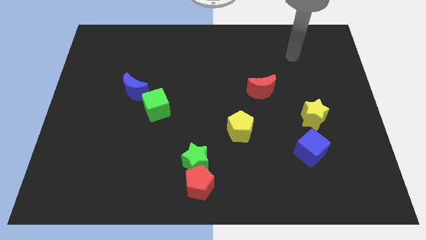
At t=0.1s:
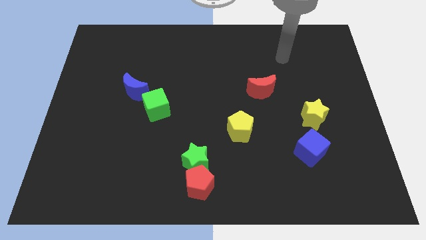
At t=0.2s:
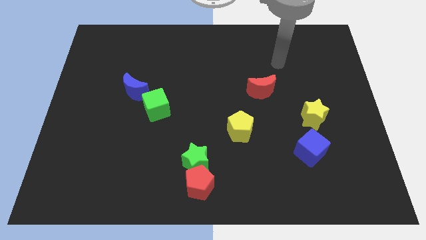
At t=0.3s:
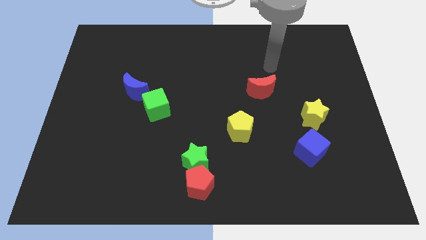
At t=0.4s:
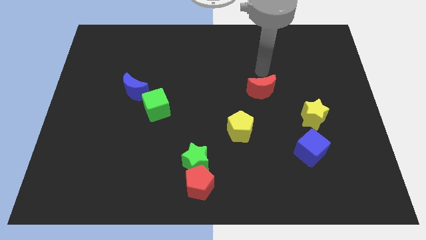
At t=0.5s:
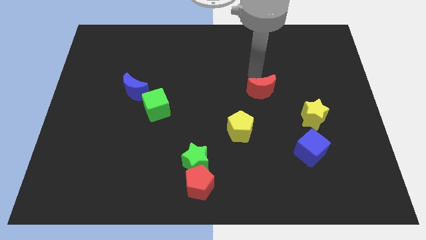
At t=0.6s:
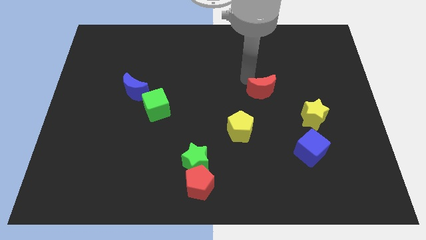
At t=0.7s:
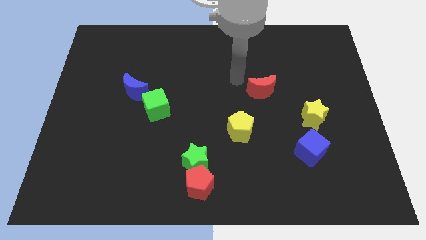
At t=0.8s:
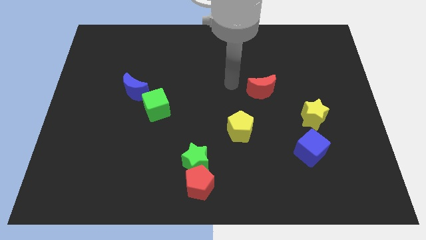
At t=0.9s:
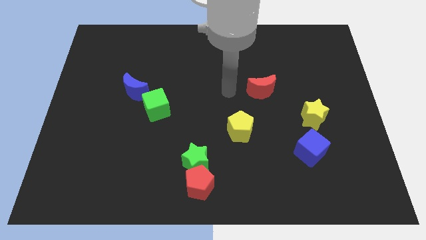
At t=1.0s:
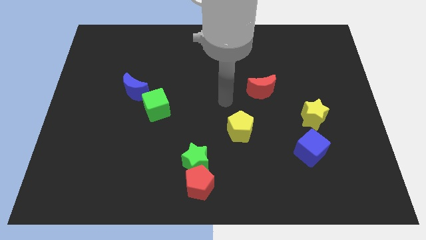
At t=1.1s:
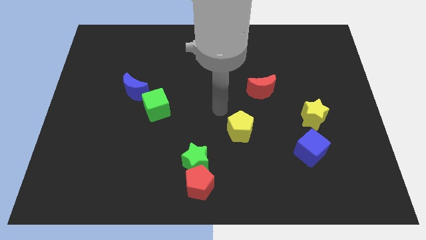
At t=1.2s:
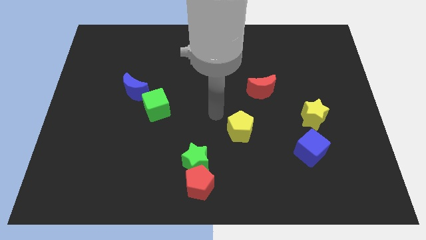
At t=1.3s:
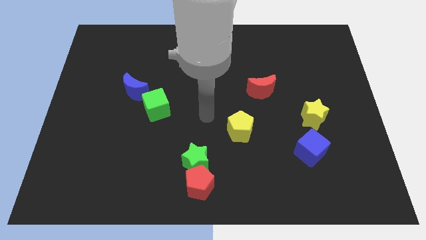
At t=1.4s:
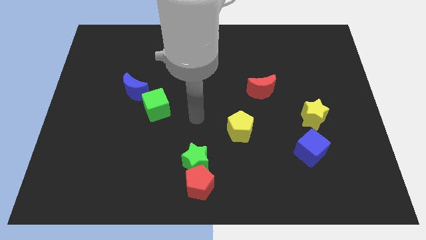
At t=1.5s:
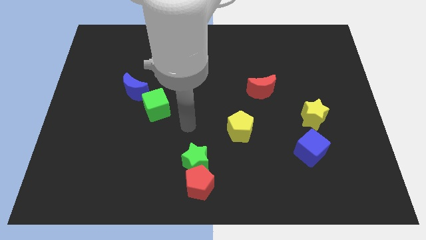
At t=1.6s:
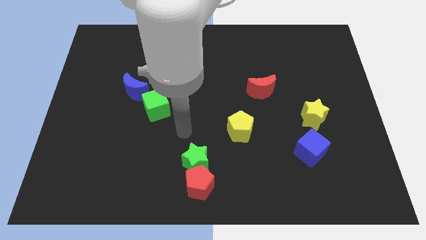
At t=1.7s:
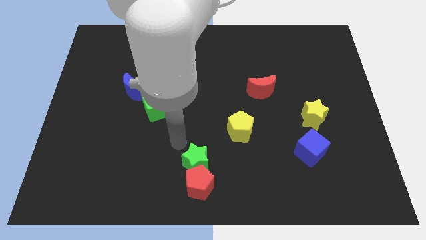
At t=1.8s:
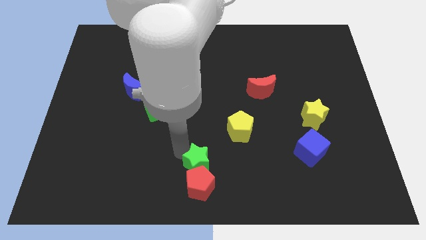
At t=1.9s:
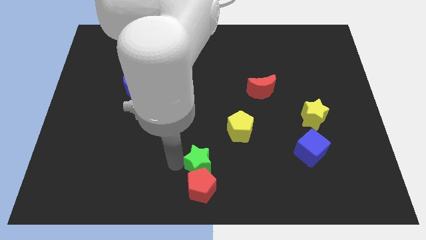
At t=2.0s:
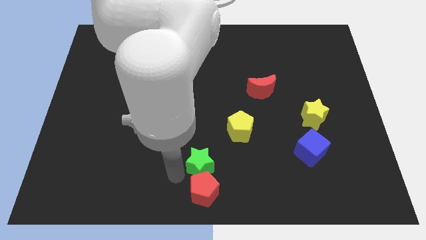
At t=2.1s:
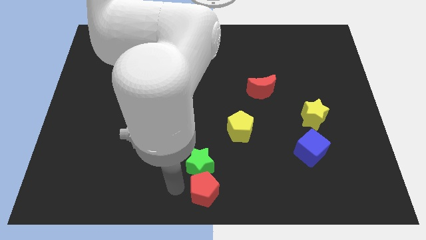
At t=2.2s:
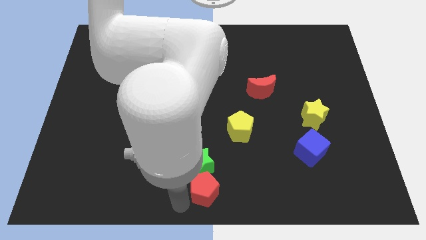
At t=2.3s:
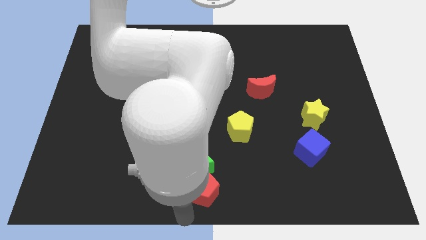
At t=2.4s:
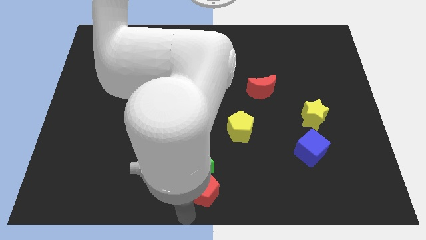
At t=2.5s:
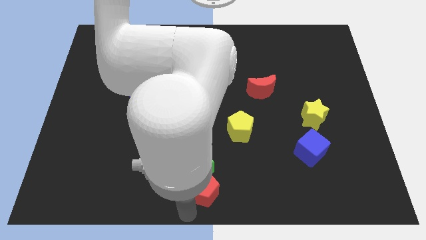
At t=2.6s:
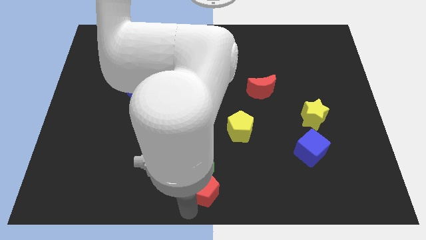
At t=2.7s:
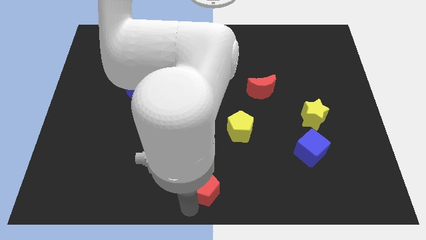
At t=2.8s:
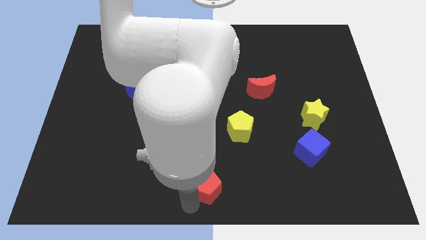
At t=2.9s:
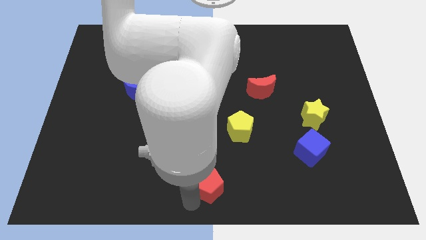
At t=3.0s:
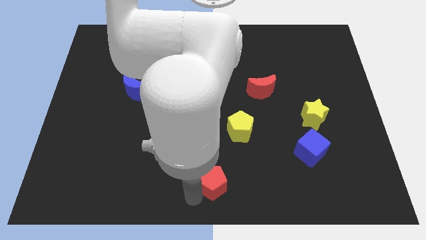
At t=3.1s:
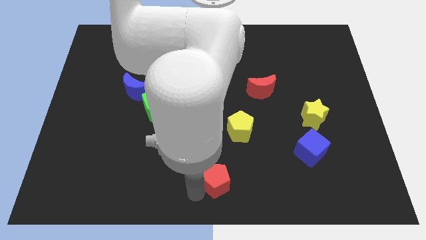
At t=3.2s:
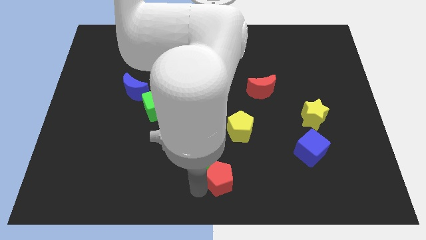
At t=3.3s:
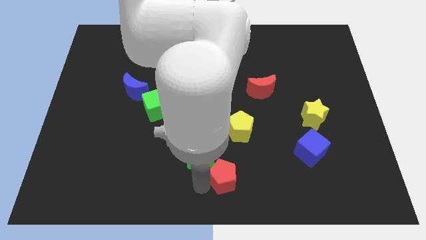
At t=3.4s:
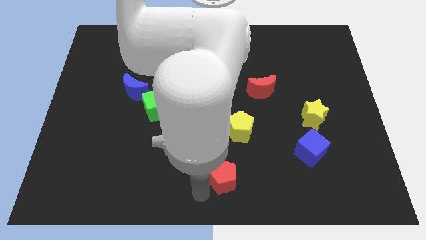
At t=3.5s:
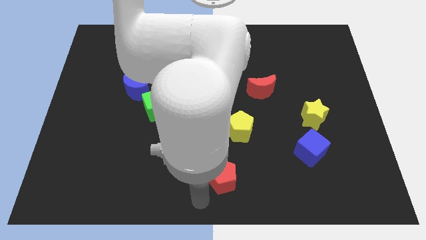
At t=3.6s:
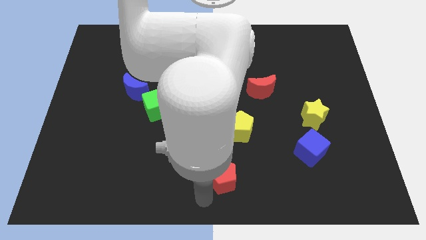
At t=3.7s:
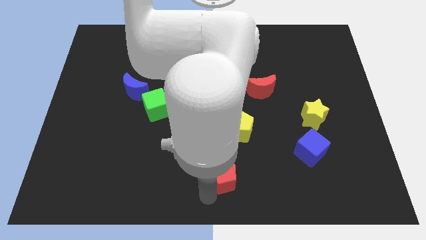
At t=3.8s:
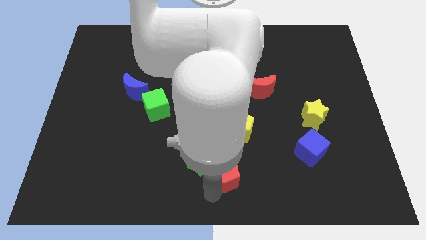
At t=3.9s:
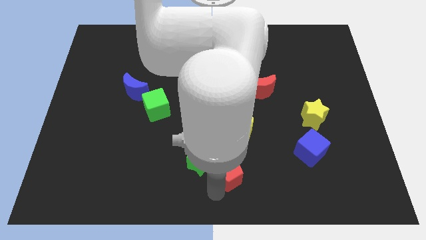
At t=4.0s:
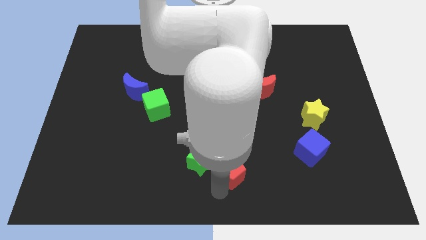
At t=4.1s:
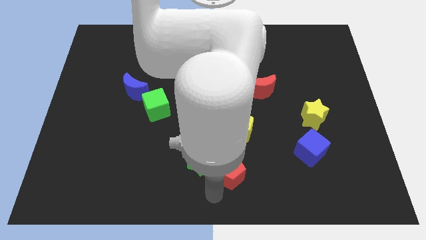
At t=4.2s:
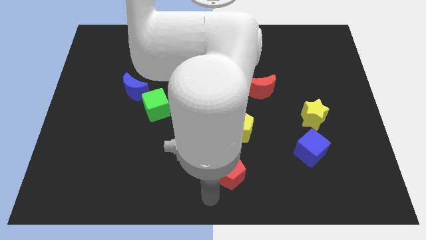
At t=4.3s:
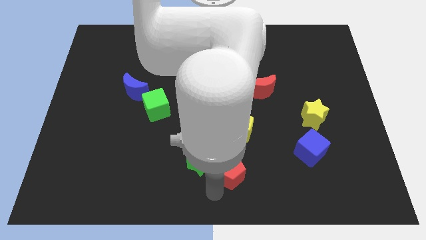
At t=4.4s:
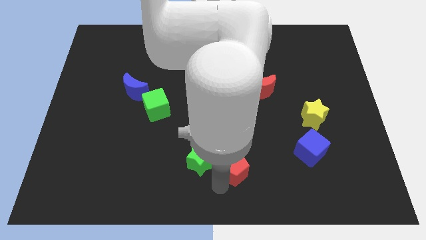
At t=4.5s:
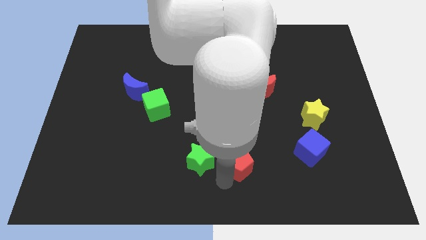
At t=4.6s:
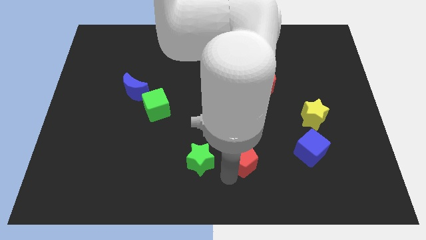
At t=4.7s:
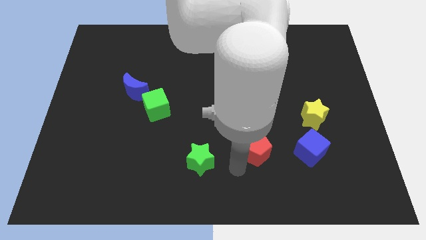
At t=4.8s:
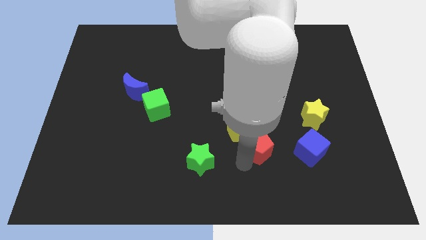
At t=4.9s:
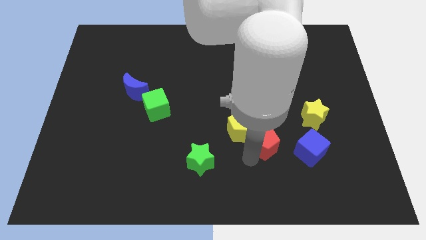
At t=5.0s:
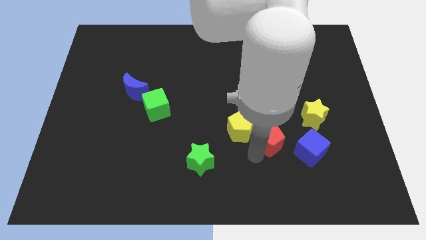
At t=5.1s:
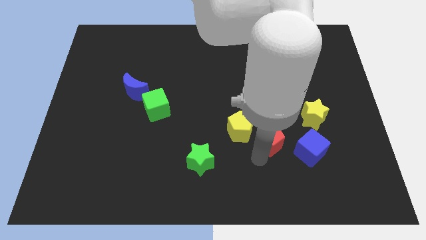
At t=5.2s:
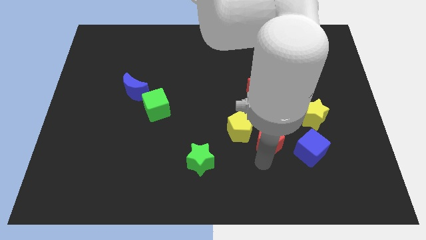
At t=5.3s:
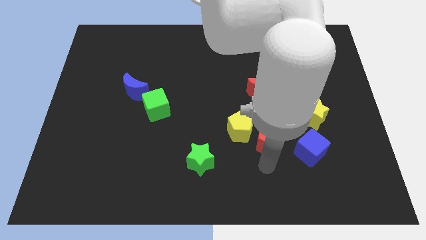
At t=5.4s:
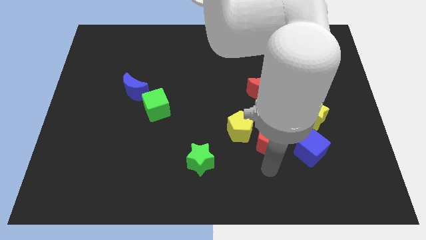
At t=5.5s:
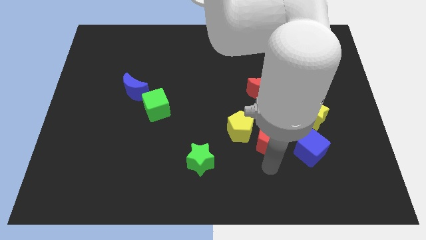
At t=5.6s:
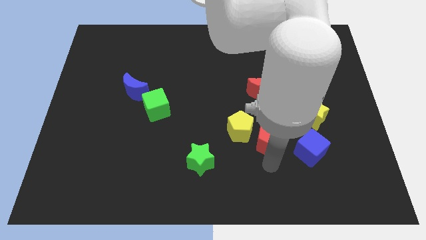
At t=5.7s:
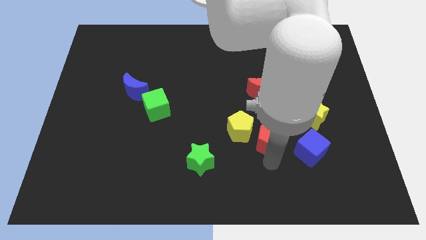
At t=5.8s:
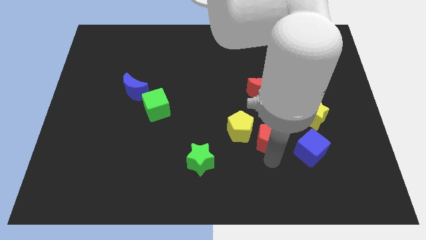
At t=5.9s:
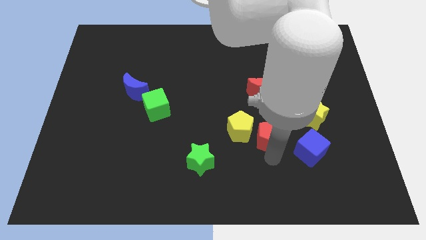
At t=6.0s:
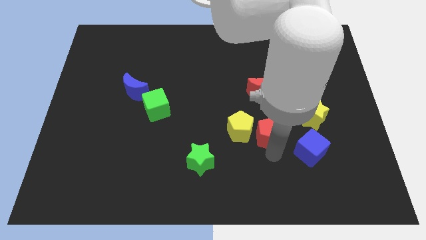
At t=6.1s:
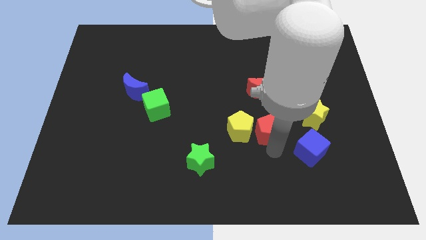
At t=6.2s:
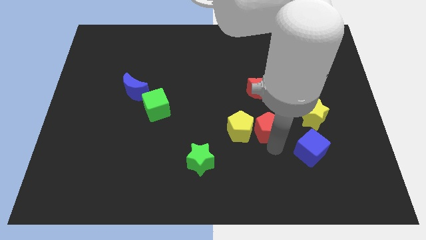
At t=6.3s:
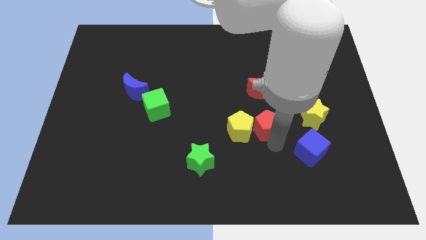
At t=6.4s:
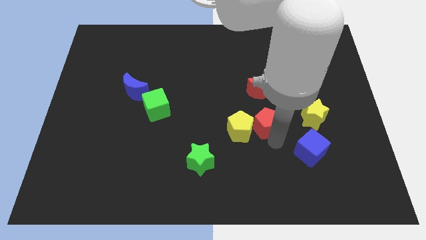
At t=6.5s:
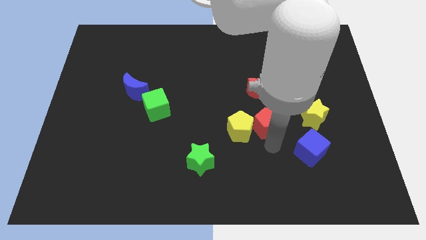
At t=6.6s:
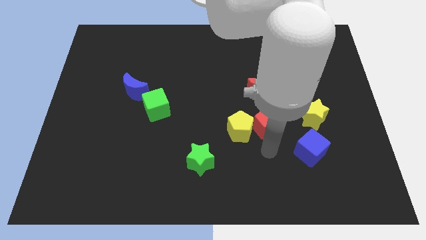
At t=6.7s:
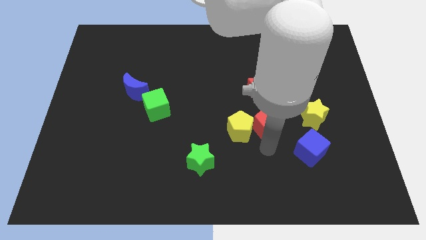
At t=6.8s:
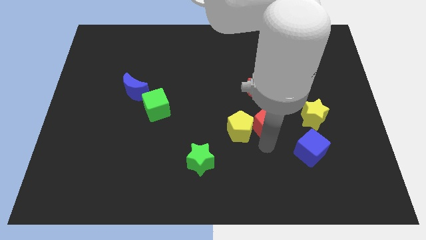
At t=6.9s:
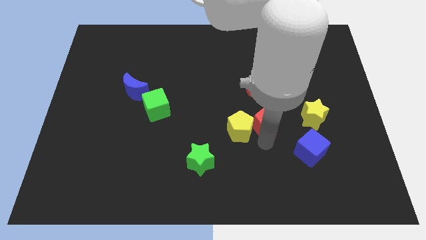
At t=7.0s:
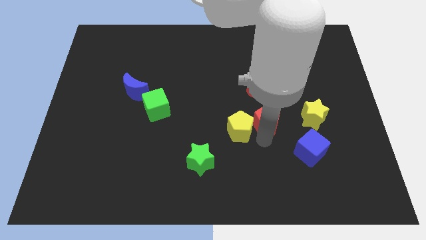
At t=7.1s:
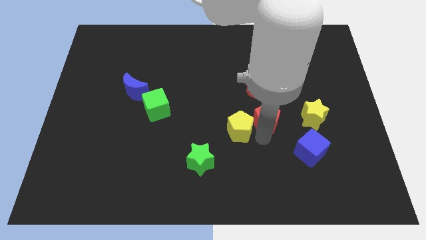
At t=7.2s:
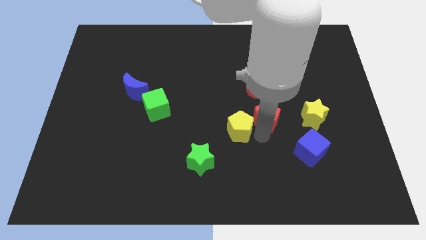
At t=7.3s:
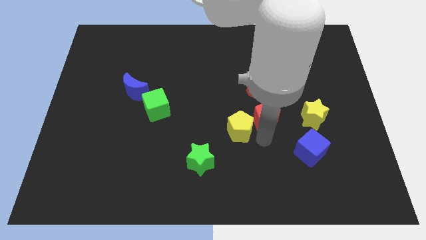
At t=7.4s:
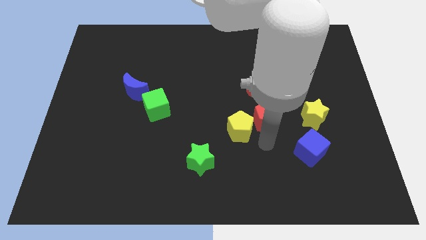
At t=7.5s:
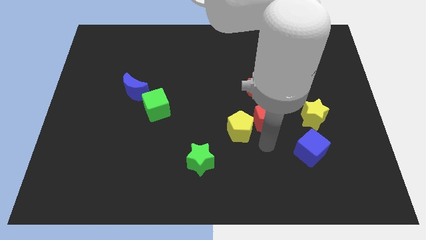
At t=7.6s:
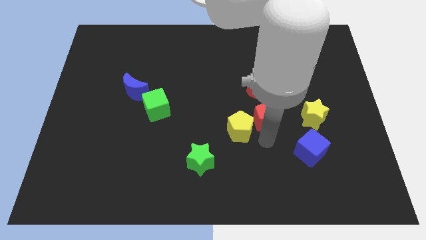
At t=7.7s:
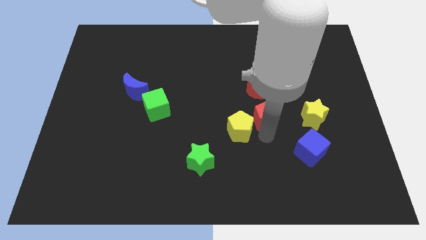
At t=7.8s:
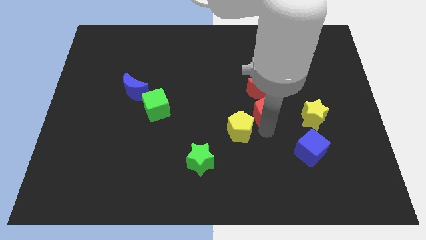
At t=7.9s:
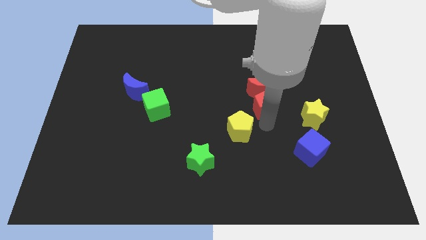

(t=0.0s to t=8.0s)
put the red pentagon close to the red moon
